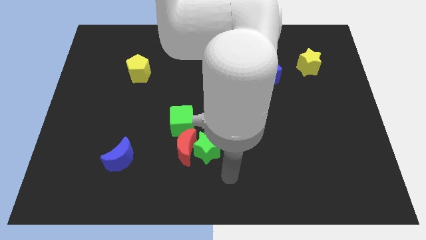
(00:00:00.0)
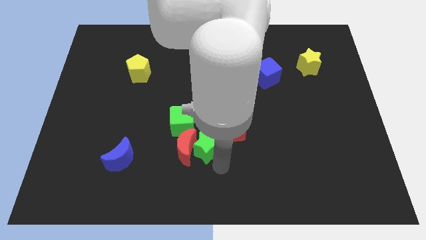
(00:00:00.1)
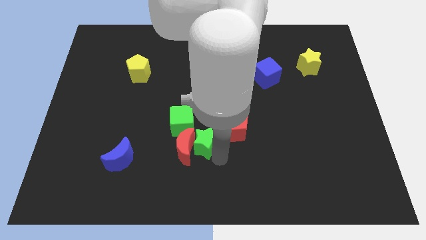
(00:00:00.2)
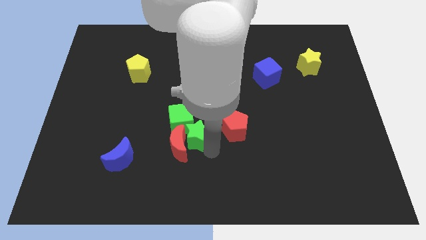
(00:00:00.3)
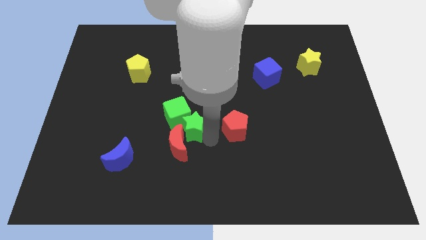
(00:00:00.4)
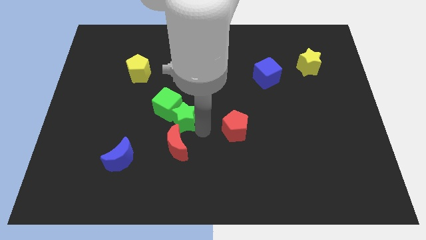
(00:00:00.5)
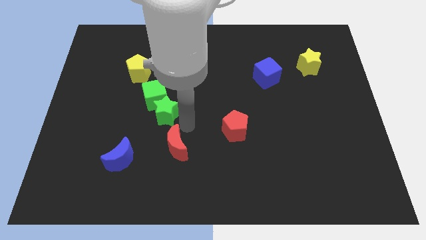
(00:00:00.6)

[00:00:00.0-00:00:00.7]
move the red moon away from the green star and green cube

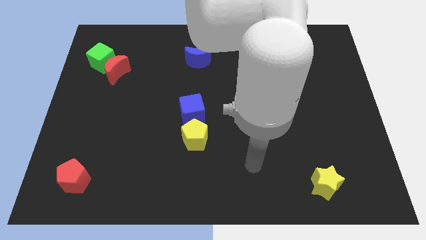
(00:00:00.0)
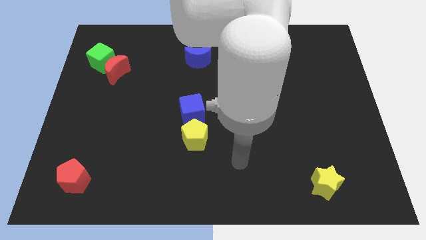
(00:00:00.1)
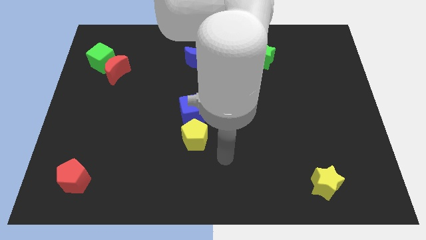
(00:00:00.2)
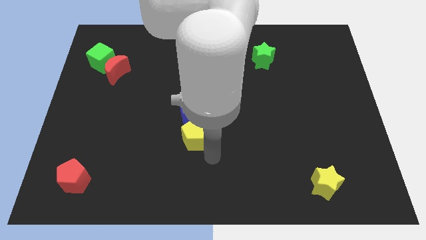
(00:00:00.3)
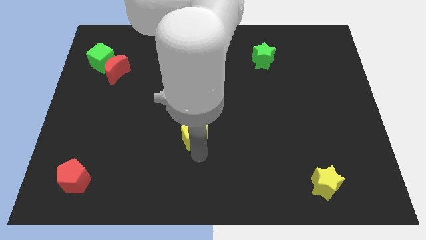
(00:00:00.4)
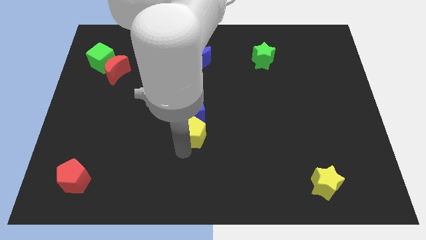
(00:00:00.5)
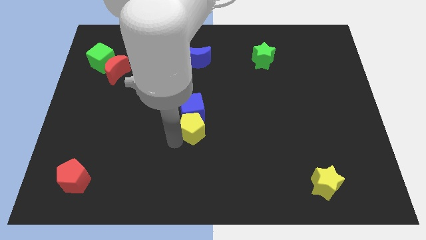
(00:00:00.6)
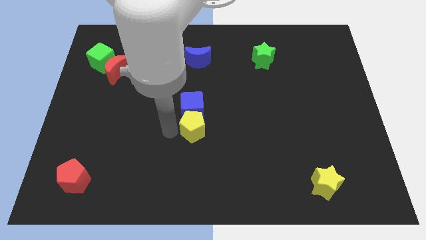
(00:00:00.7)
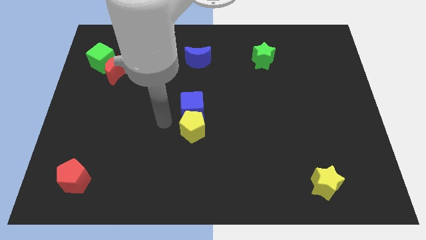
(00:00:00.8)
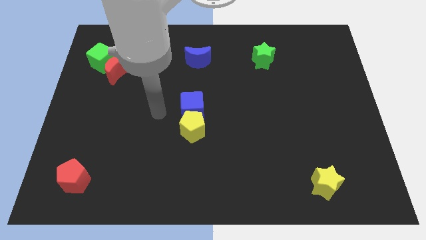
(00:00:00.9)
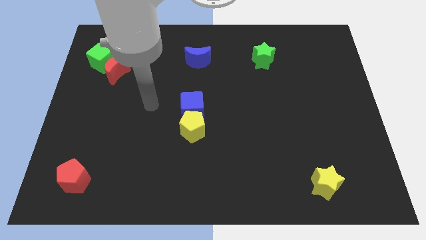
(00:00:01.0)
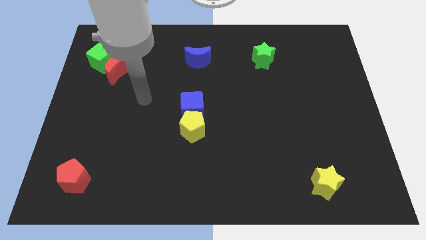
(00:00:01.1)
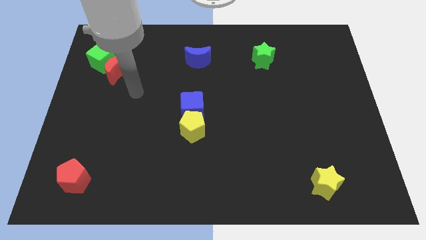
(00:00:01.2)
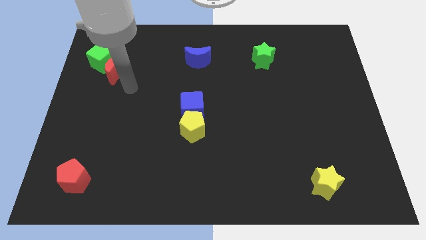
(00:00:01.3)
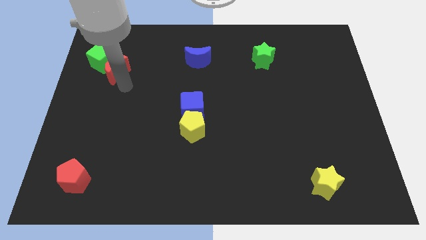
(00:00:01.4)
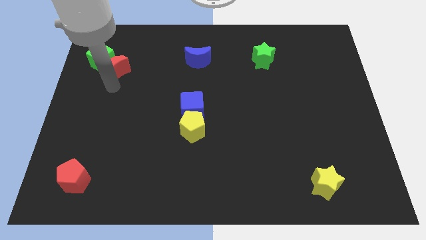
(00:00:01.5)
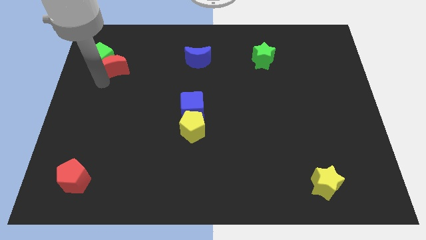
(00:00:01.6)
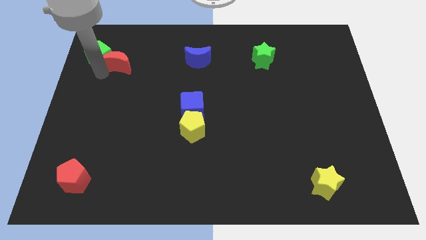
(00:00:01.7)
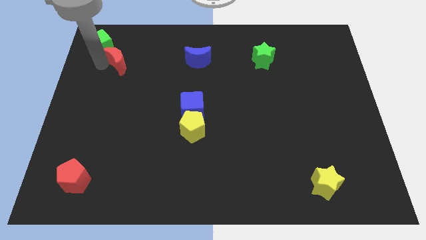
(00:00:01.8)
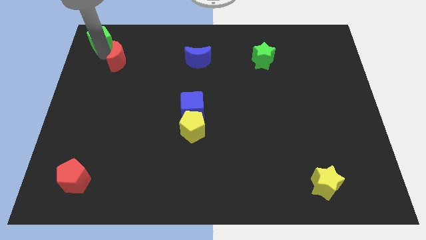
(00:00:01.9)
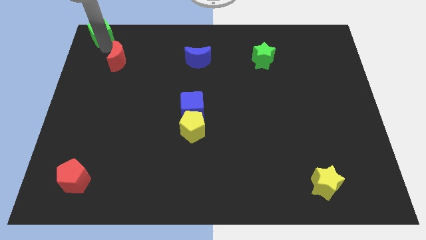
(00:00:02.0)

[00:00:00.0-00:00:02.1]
separate the red moon from the green cube

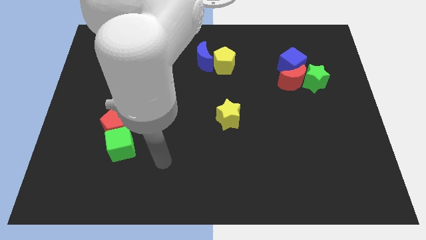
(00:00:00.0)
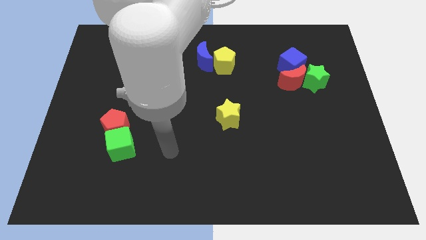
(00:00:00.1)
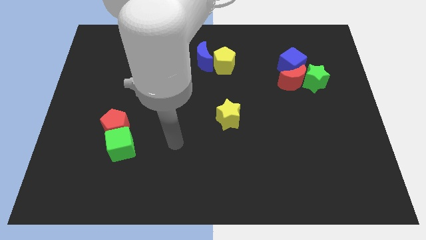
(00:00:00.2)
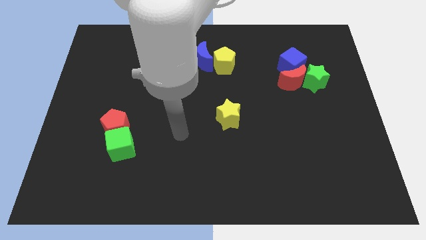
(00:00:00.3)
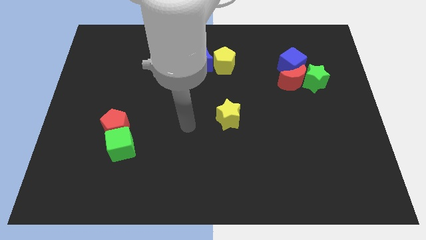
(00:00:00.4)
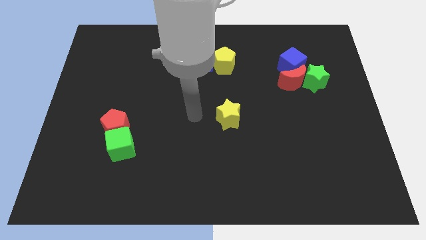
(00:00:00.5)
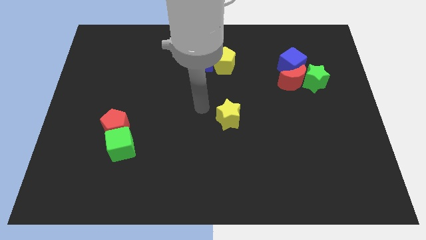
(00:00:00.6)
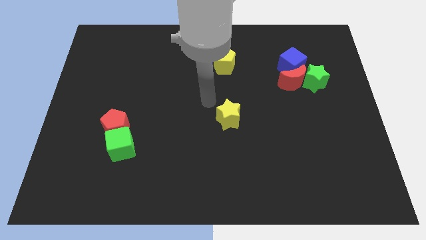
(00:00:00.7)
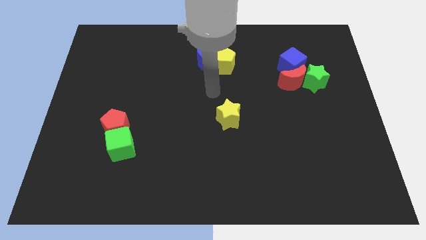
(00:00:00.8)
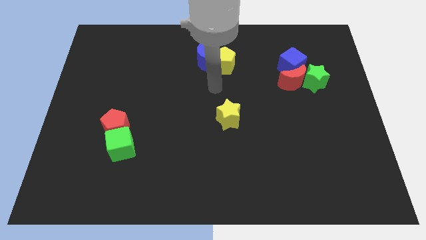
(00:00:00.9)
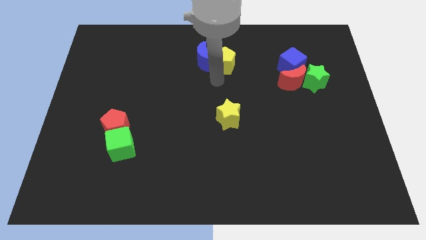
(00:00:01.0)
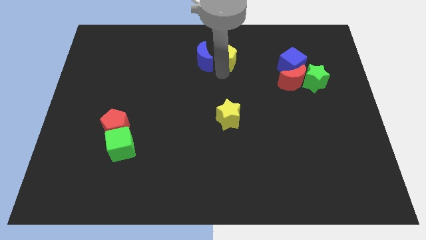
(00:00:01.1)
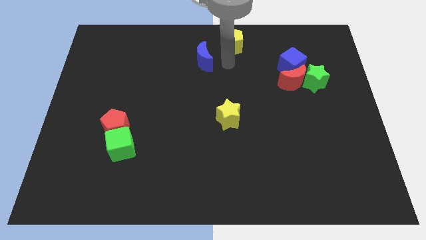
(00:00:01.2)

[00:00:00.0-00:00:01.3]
separate the blue moon from the yellow pentagon

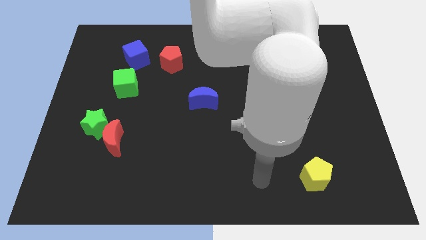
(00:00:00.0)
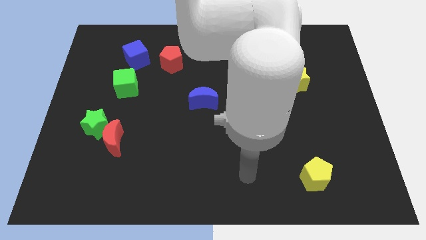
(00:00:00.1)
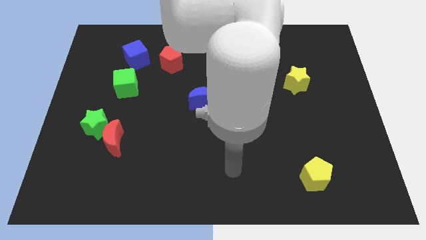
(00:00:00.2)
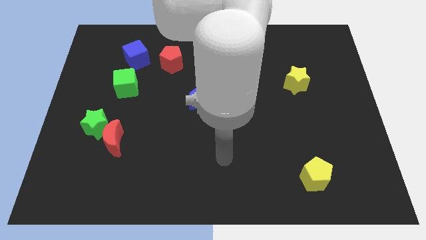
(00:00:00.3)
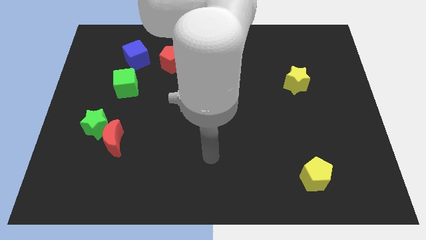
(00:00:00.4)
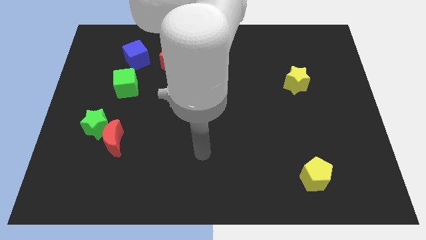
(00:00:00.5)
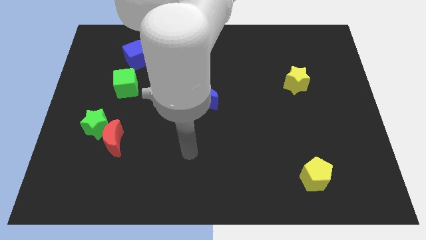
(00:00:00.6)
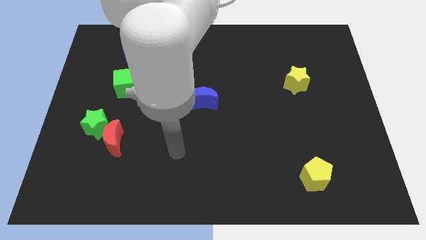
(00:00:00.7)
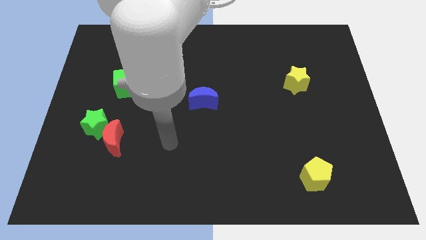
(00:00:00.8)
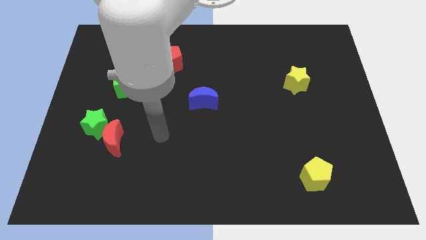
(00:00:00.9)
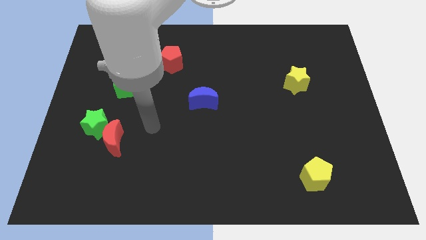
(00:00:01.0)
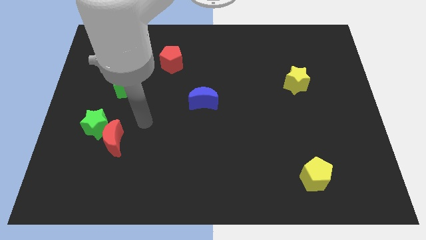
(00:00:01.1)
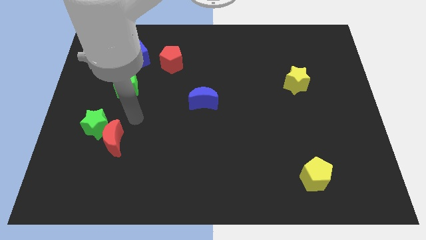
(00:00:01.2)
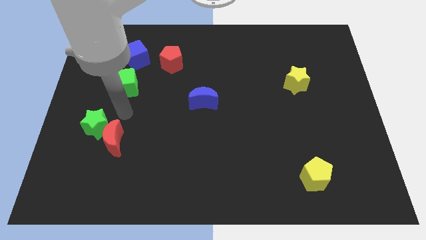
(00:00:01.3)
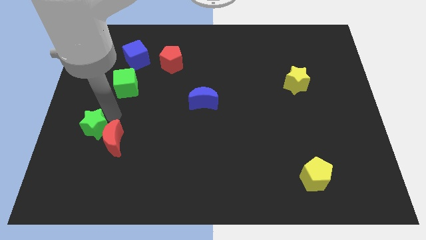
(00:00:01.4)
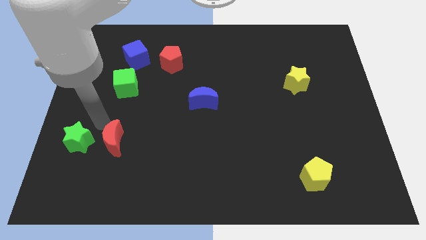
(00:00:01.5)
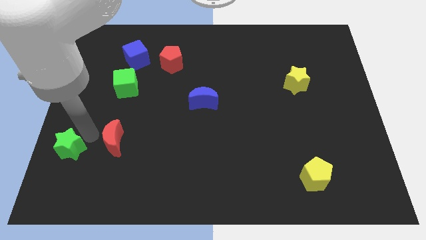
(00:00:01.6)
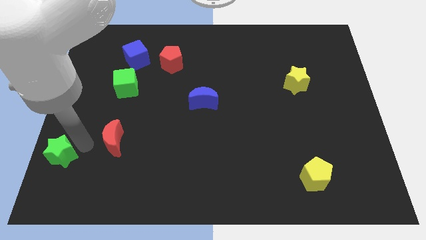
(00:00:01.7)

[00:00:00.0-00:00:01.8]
pull the red moon apart from the green star

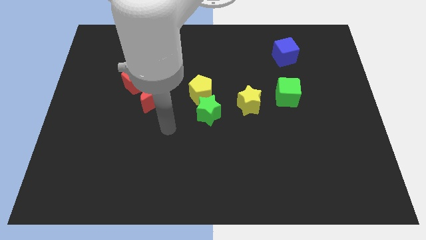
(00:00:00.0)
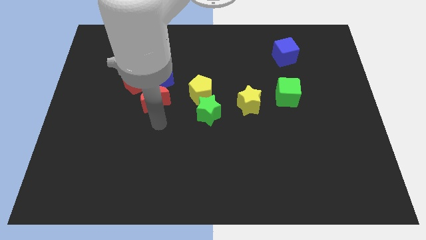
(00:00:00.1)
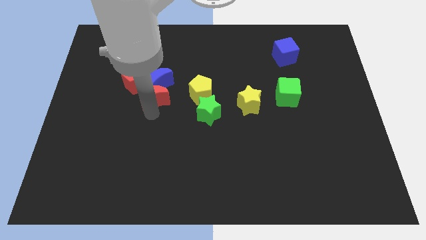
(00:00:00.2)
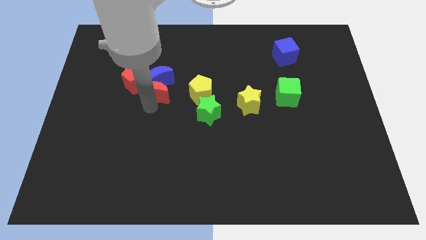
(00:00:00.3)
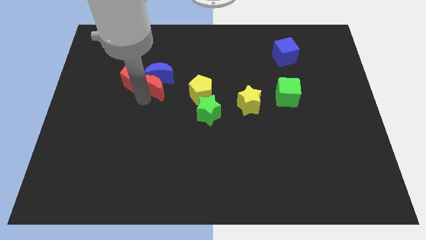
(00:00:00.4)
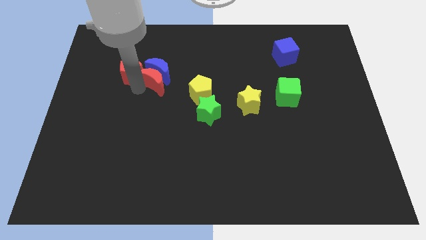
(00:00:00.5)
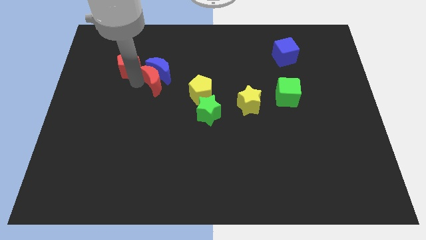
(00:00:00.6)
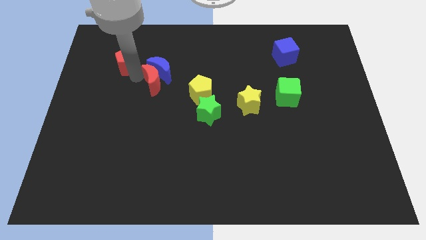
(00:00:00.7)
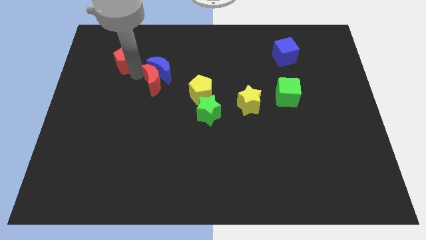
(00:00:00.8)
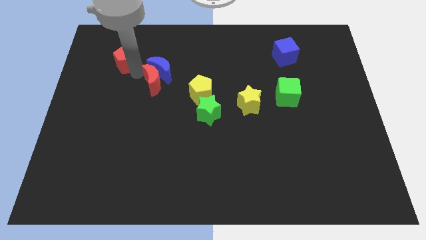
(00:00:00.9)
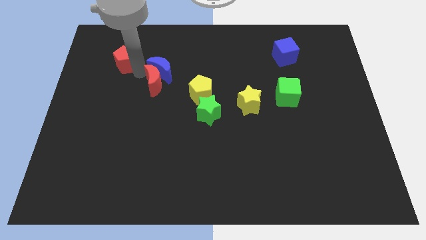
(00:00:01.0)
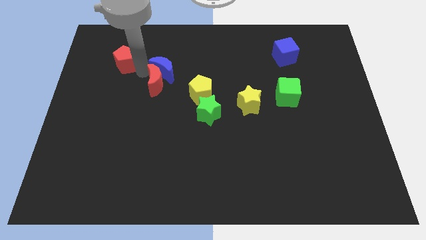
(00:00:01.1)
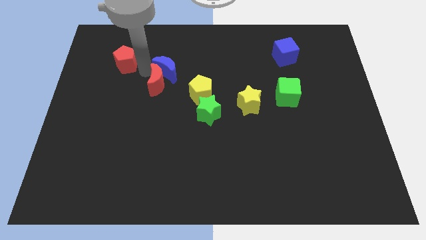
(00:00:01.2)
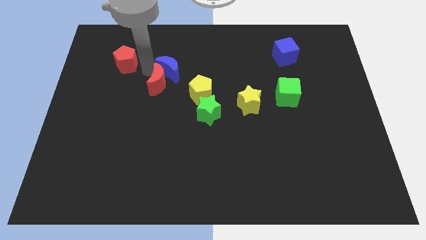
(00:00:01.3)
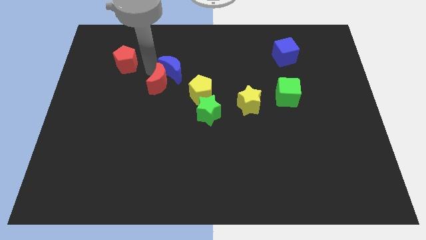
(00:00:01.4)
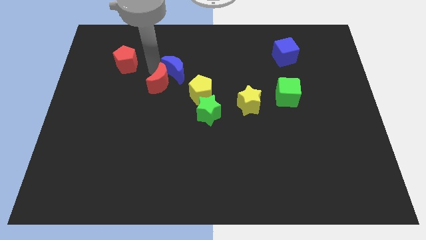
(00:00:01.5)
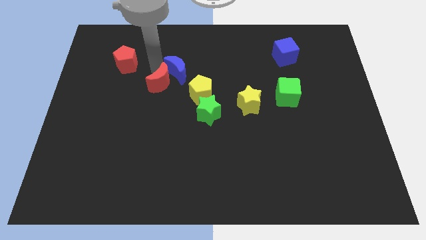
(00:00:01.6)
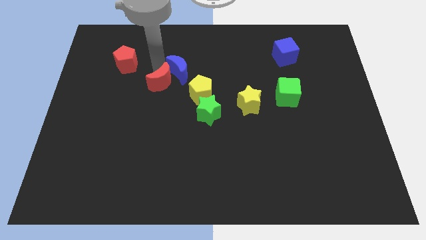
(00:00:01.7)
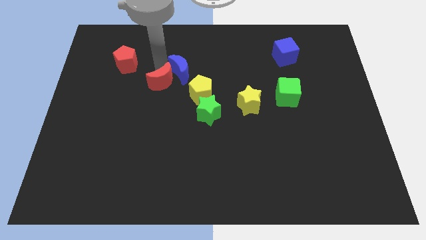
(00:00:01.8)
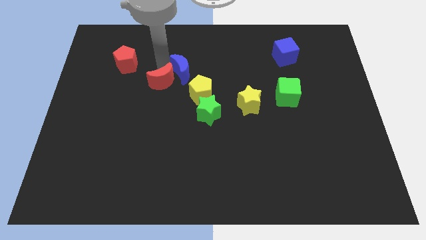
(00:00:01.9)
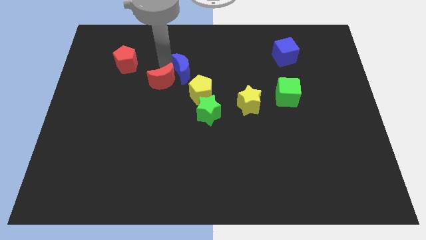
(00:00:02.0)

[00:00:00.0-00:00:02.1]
separate the blue moon from the red moon and red pentagon

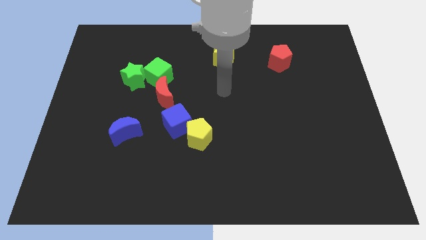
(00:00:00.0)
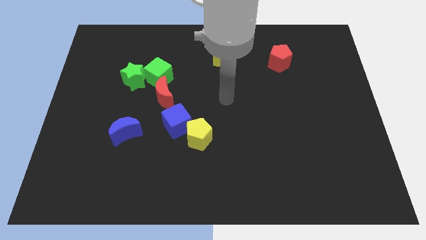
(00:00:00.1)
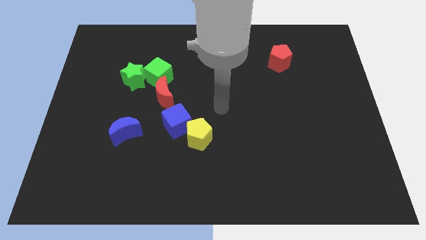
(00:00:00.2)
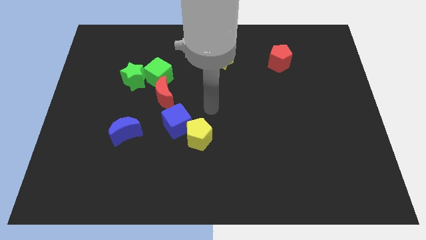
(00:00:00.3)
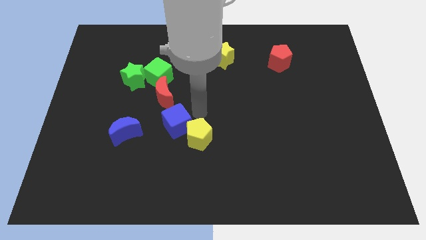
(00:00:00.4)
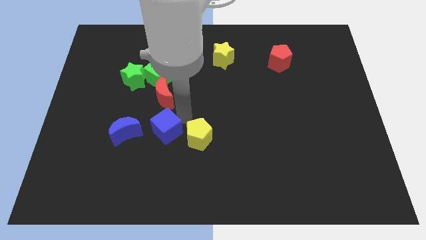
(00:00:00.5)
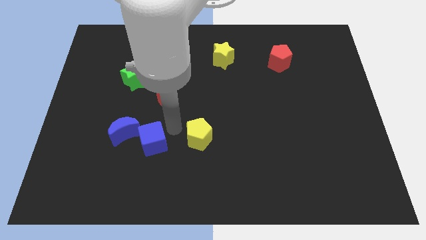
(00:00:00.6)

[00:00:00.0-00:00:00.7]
pull the yellow pentagon apart from the blue cube

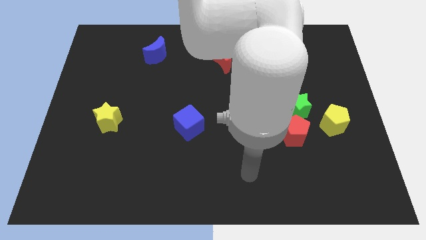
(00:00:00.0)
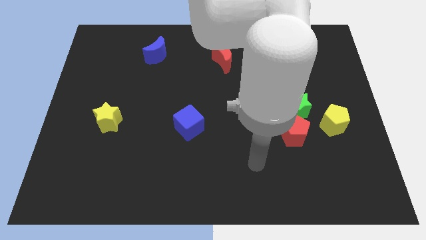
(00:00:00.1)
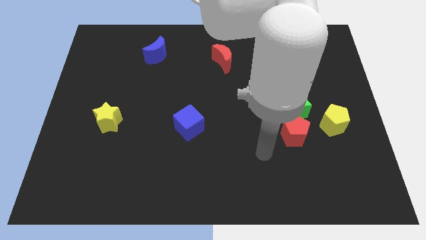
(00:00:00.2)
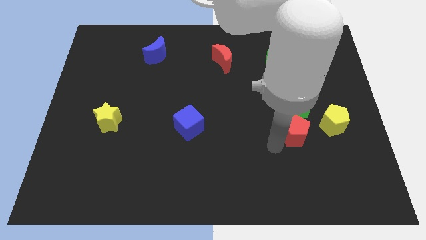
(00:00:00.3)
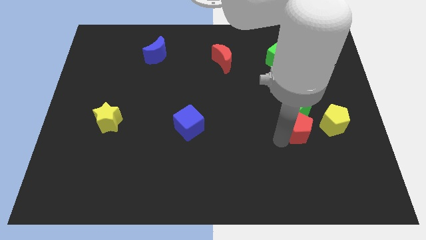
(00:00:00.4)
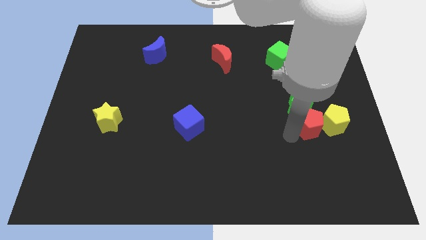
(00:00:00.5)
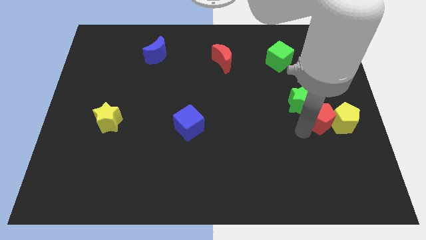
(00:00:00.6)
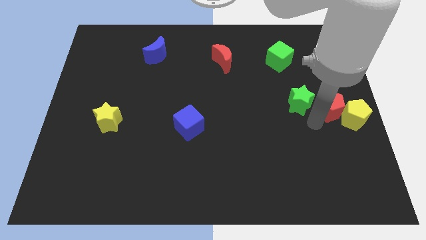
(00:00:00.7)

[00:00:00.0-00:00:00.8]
pull the green star apart from the red pentagon and yellow pentagon
